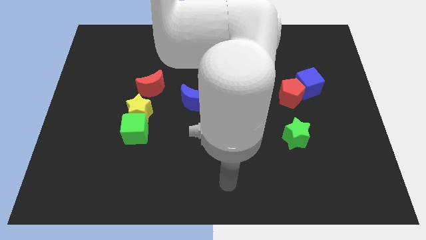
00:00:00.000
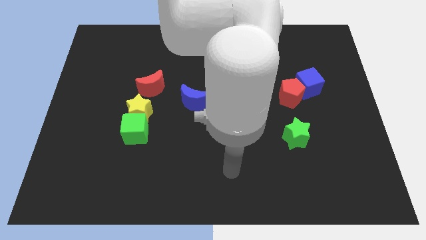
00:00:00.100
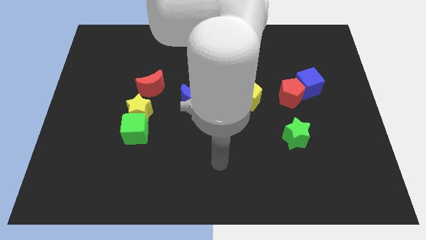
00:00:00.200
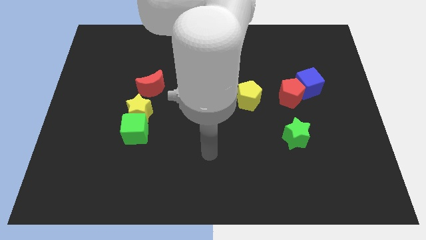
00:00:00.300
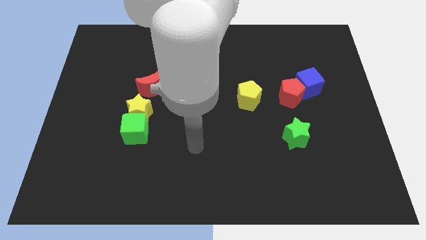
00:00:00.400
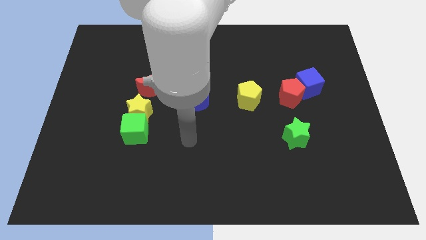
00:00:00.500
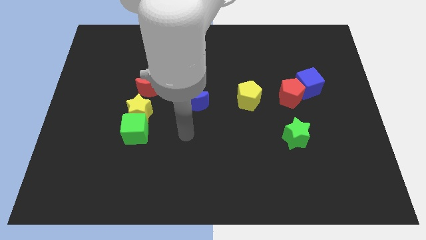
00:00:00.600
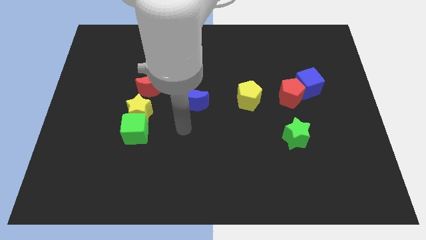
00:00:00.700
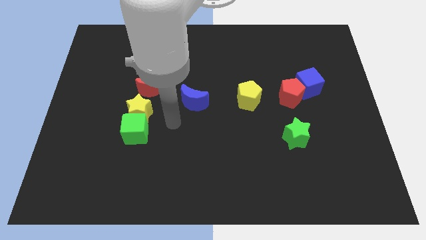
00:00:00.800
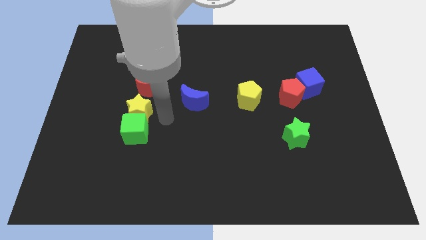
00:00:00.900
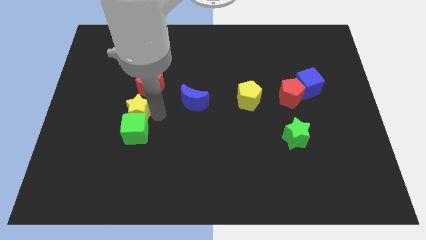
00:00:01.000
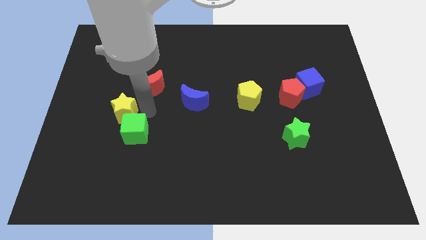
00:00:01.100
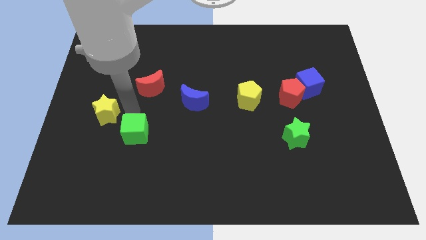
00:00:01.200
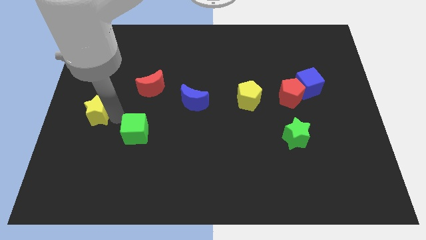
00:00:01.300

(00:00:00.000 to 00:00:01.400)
move the green cube away from the yellow star

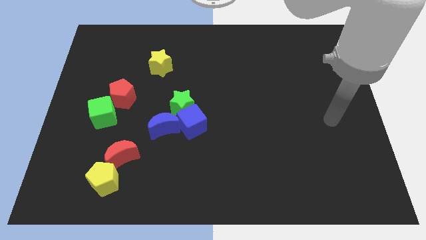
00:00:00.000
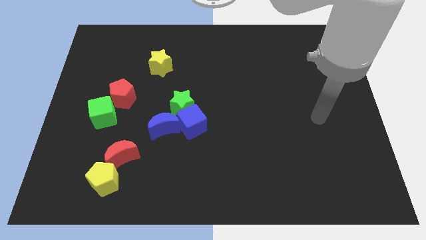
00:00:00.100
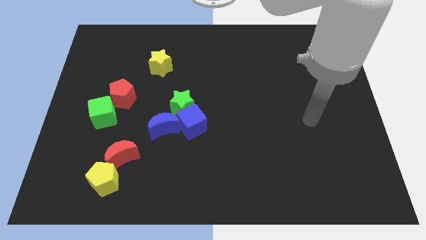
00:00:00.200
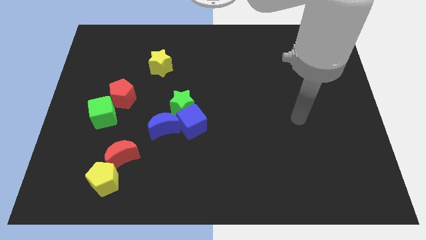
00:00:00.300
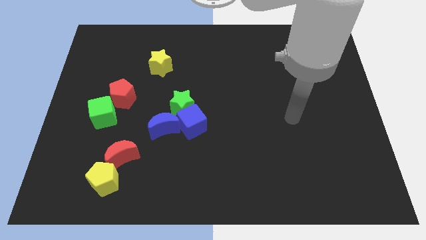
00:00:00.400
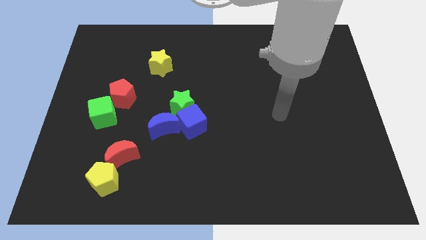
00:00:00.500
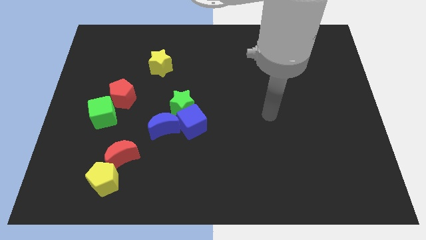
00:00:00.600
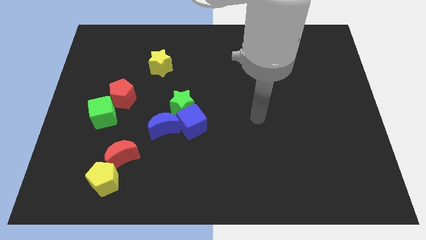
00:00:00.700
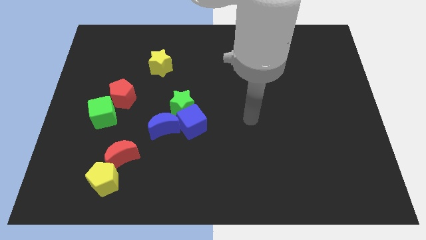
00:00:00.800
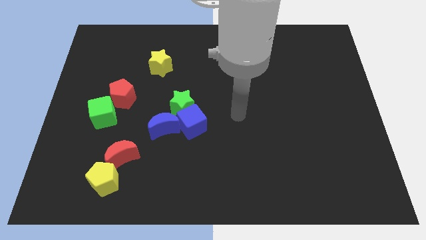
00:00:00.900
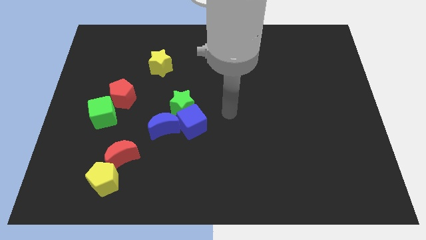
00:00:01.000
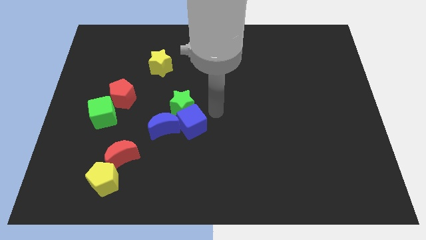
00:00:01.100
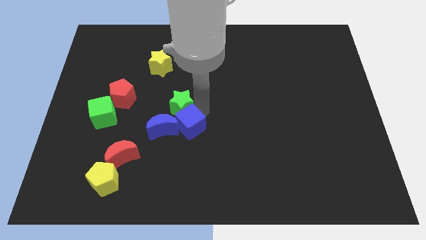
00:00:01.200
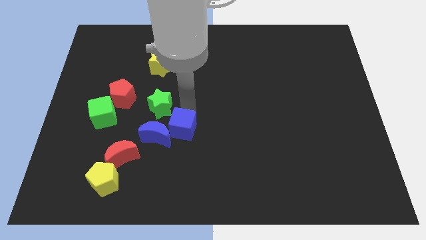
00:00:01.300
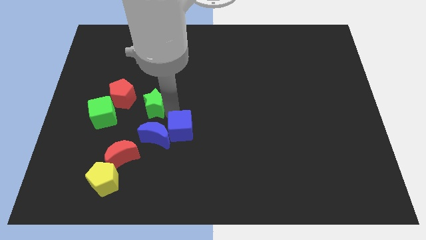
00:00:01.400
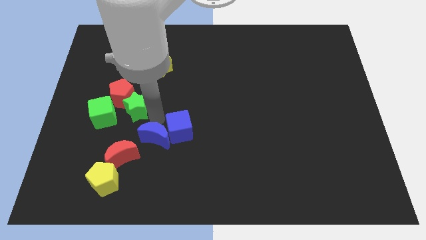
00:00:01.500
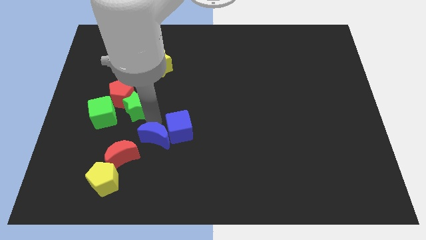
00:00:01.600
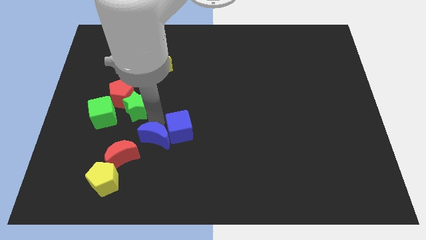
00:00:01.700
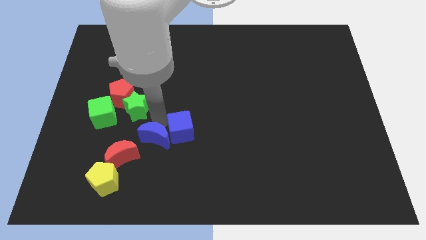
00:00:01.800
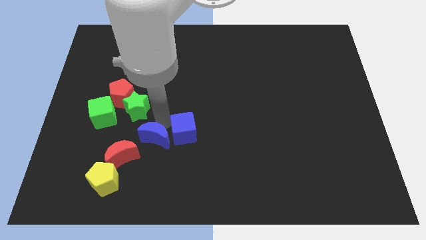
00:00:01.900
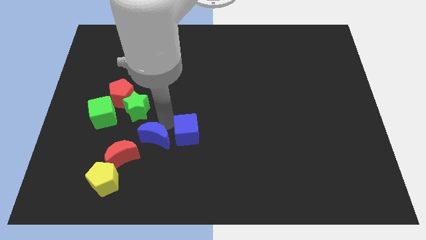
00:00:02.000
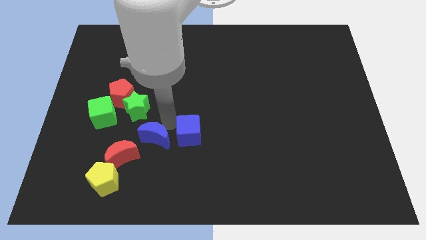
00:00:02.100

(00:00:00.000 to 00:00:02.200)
separate the blue cube from the green star and blue moon

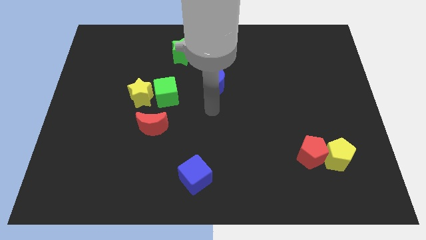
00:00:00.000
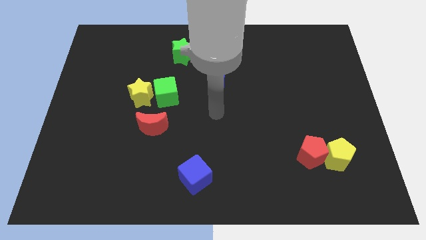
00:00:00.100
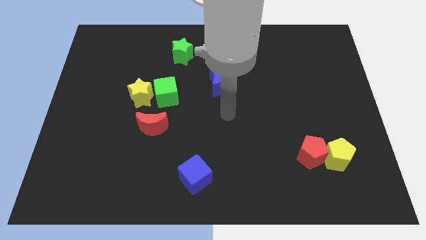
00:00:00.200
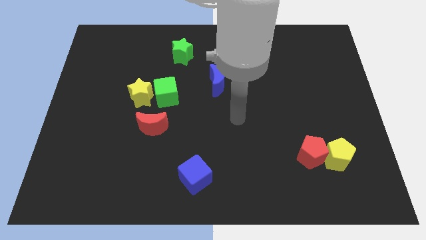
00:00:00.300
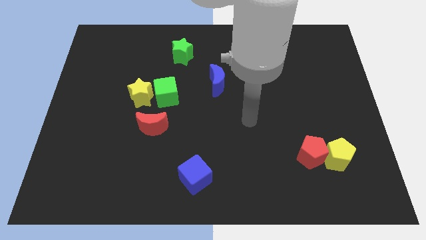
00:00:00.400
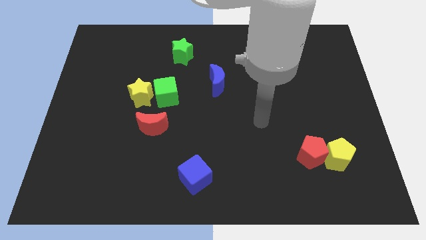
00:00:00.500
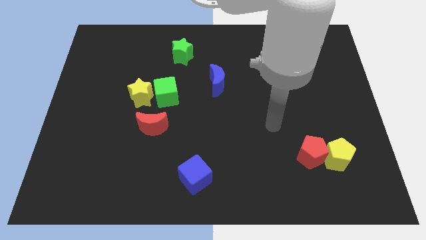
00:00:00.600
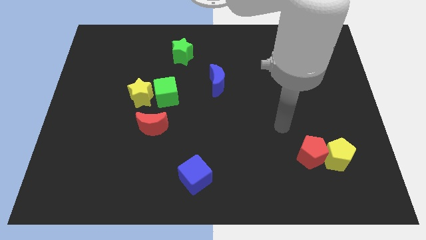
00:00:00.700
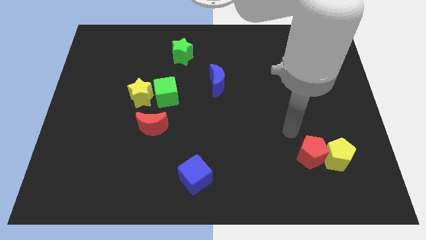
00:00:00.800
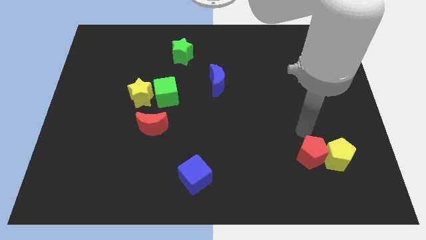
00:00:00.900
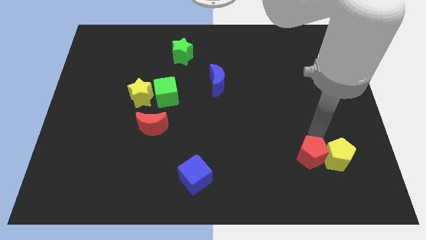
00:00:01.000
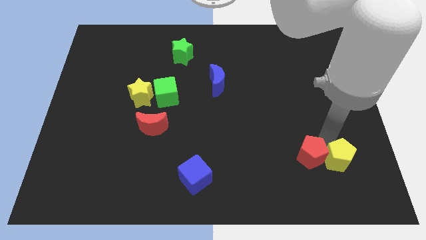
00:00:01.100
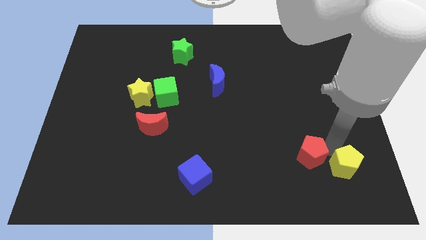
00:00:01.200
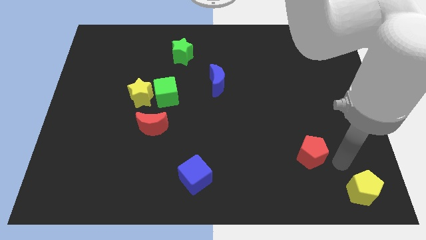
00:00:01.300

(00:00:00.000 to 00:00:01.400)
separate the red pentagon from the yellow pentagon

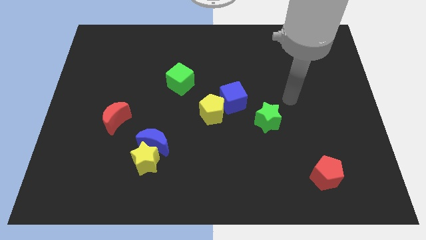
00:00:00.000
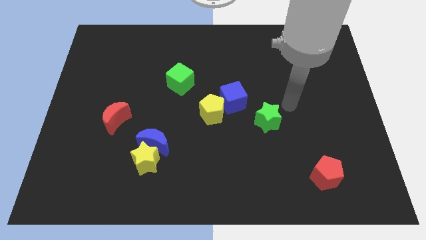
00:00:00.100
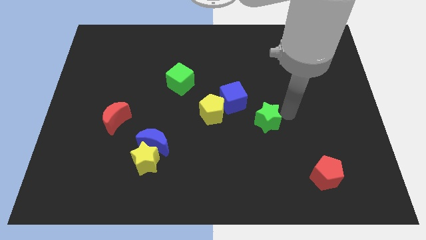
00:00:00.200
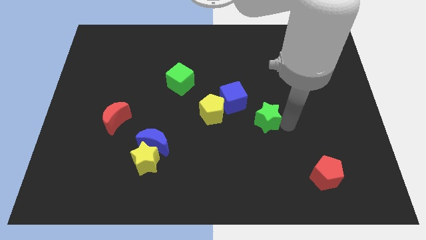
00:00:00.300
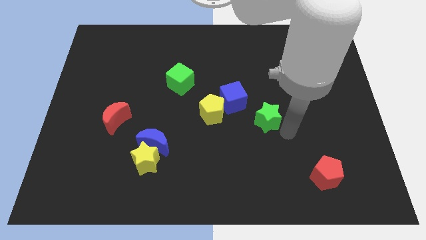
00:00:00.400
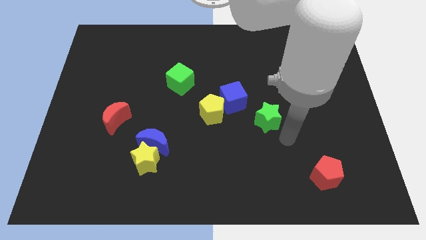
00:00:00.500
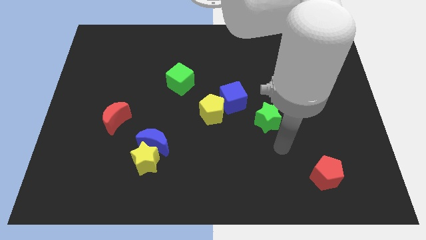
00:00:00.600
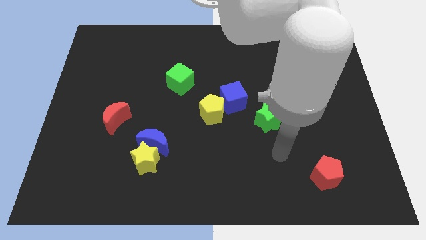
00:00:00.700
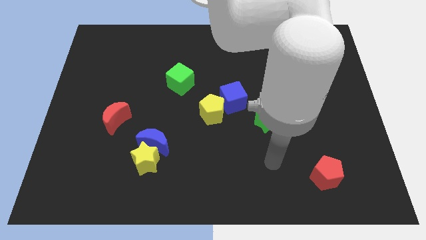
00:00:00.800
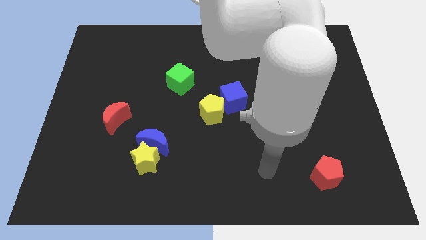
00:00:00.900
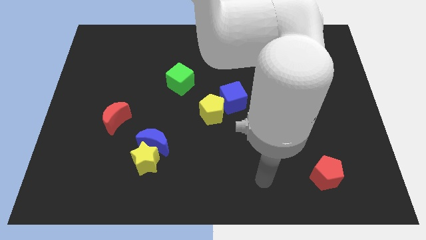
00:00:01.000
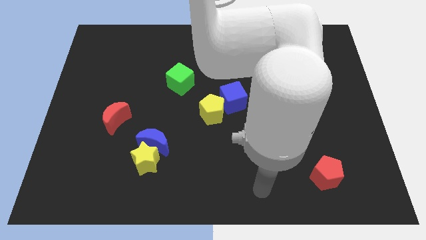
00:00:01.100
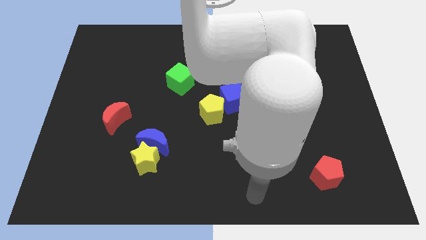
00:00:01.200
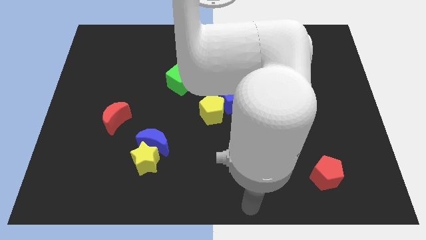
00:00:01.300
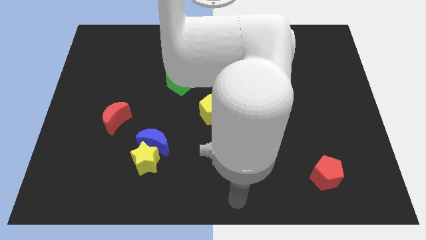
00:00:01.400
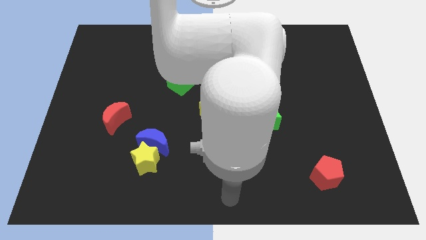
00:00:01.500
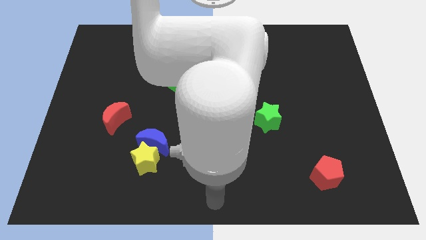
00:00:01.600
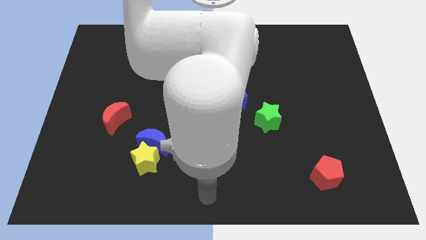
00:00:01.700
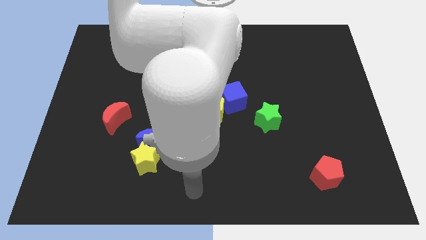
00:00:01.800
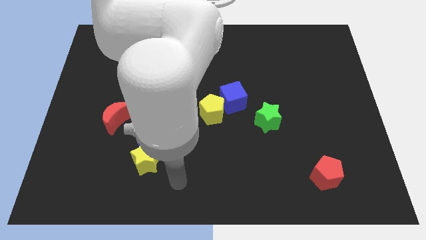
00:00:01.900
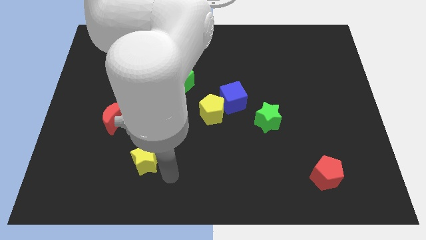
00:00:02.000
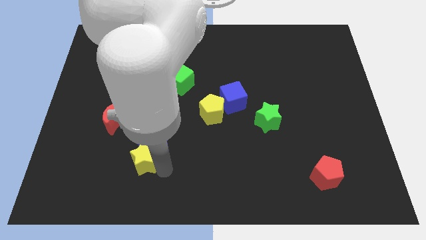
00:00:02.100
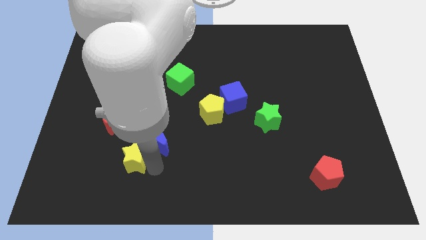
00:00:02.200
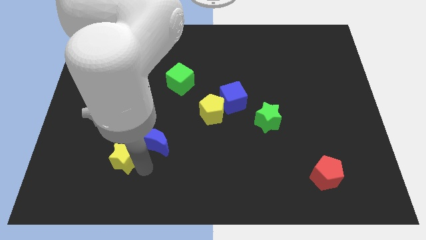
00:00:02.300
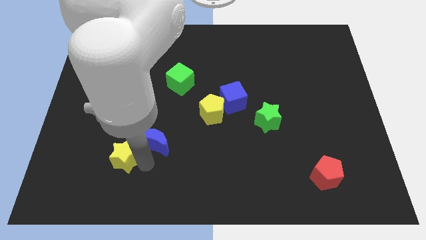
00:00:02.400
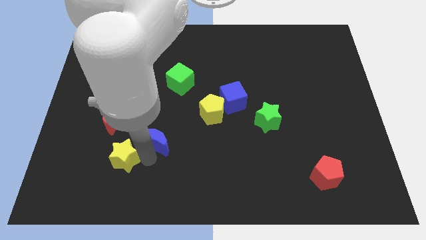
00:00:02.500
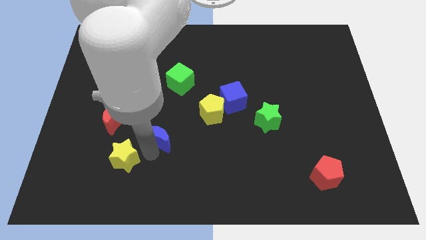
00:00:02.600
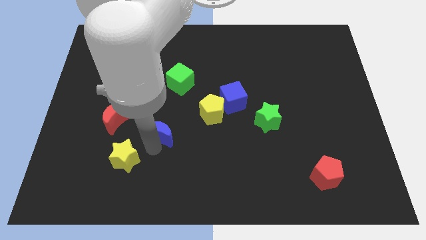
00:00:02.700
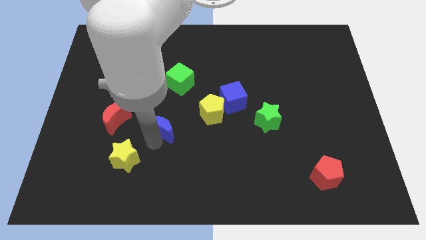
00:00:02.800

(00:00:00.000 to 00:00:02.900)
separate the blue moon from the yellow star

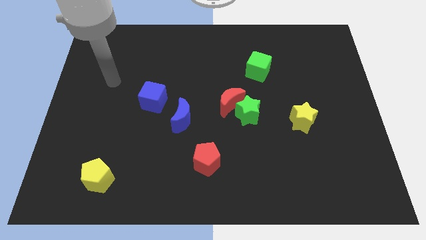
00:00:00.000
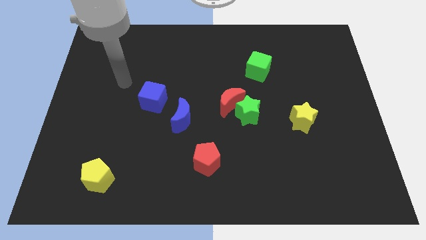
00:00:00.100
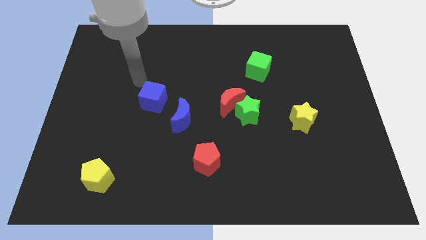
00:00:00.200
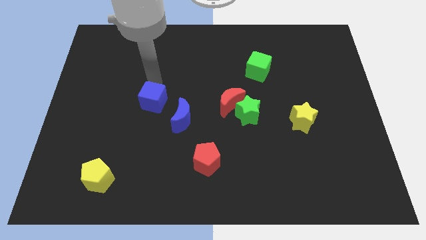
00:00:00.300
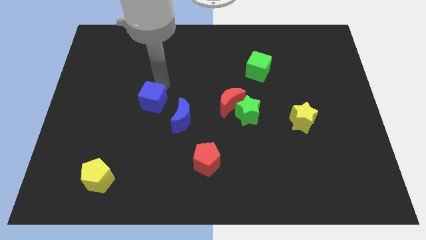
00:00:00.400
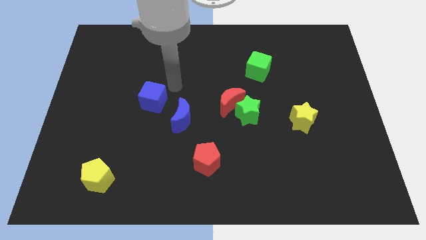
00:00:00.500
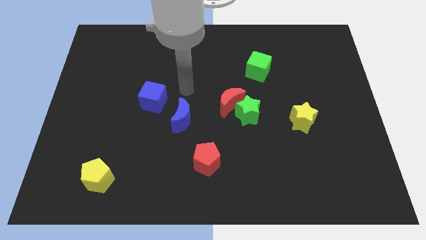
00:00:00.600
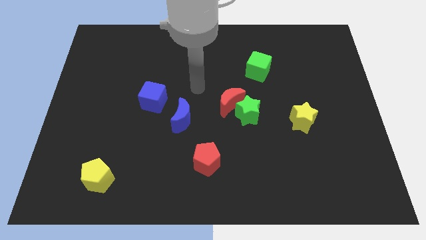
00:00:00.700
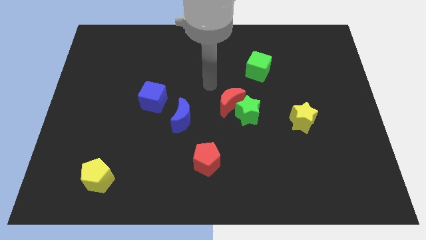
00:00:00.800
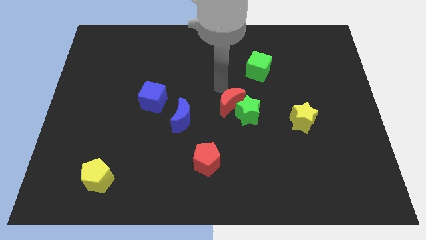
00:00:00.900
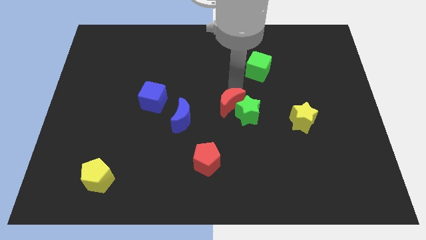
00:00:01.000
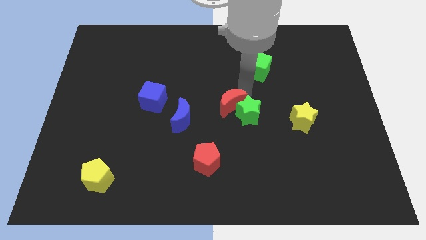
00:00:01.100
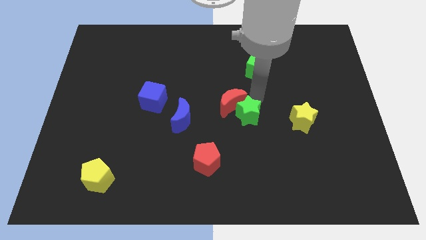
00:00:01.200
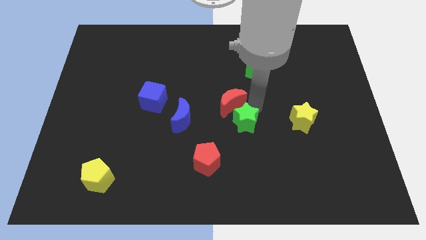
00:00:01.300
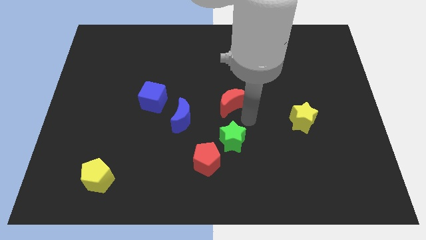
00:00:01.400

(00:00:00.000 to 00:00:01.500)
move the red moon away from the green star
